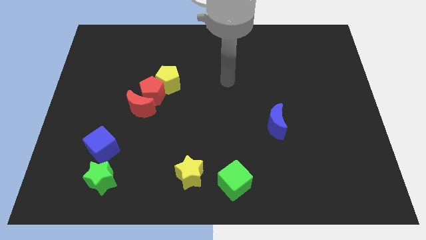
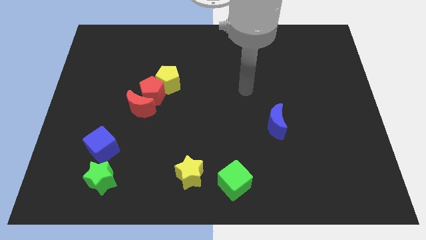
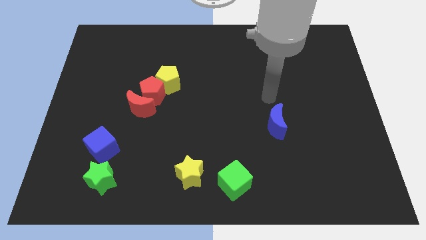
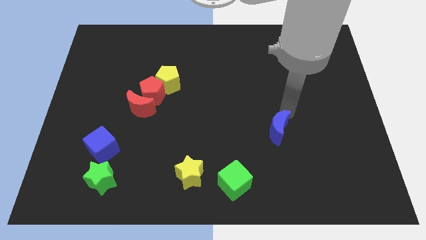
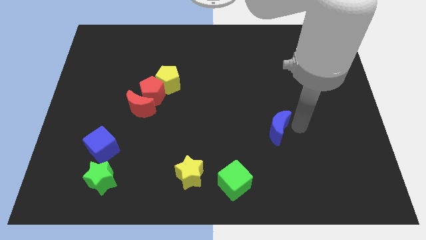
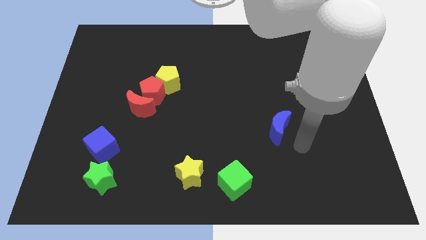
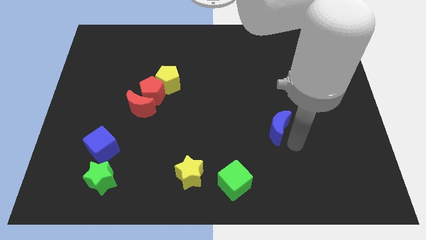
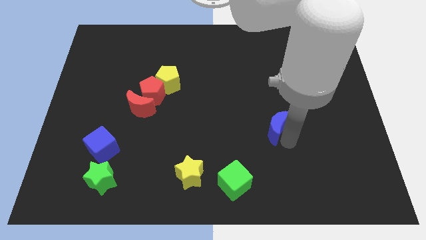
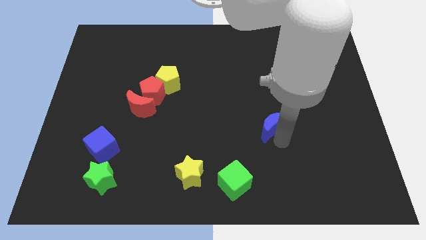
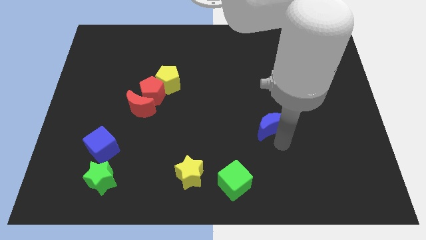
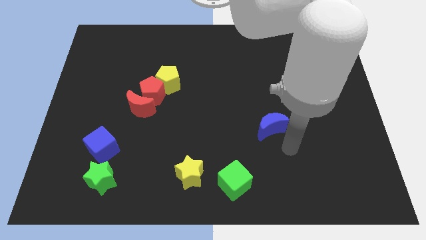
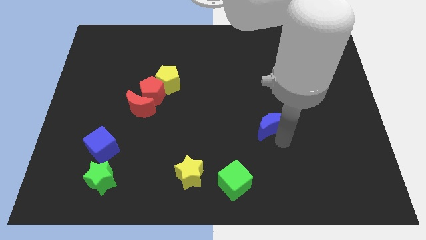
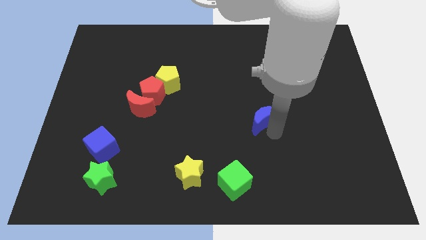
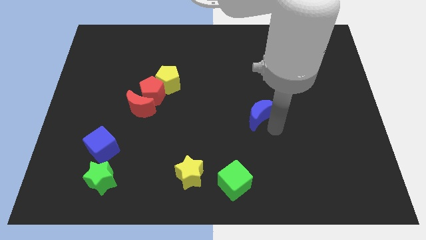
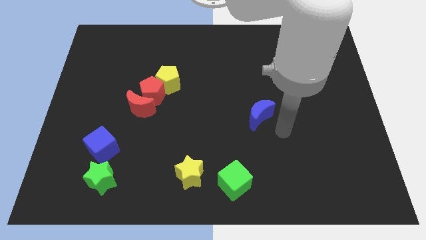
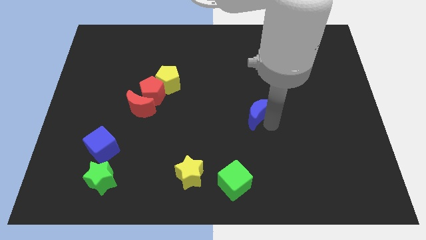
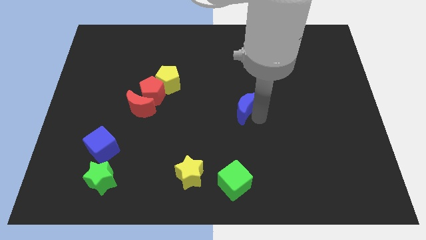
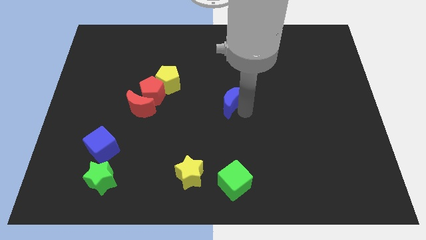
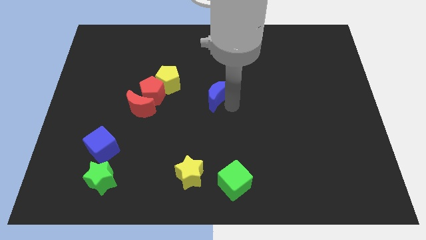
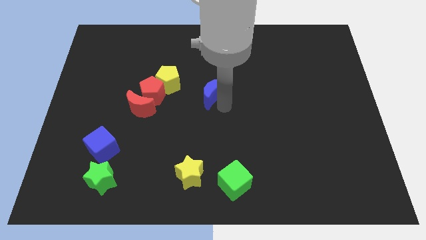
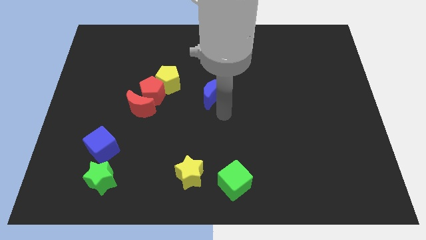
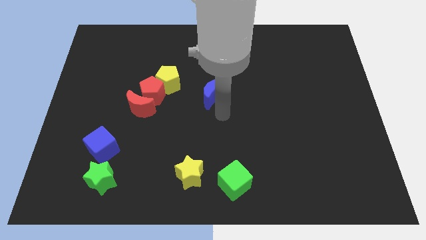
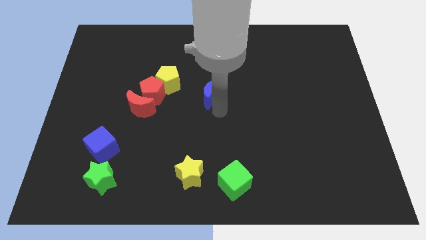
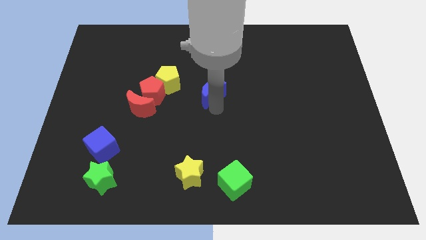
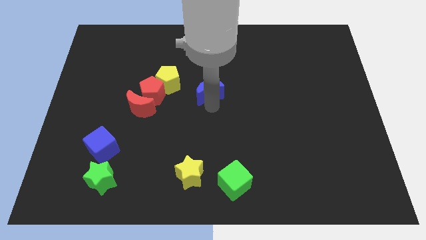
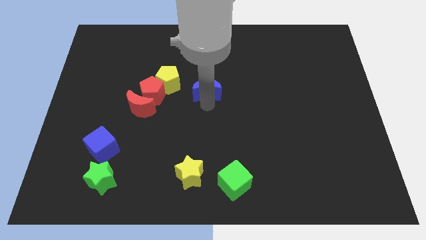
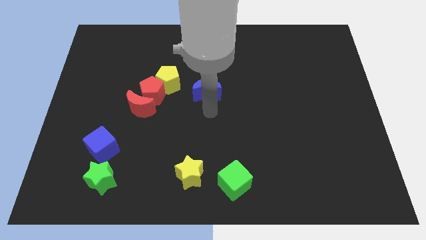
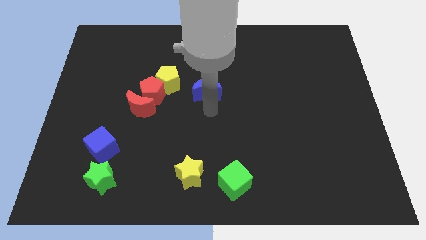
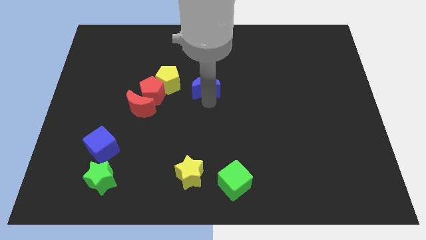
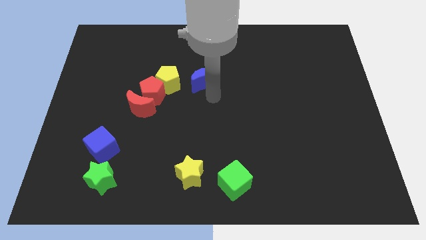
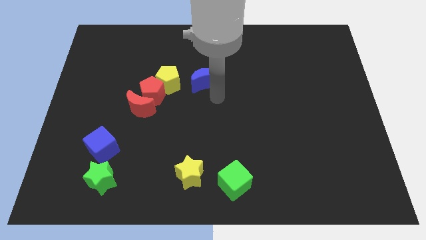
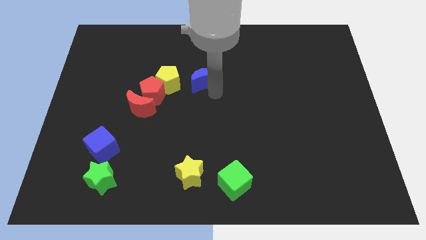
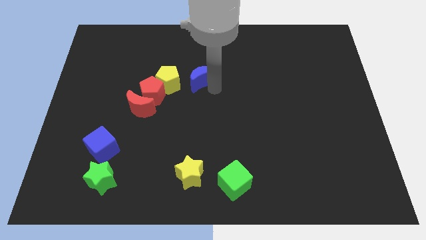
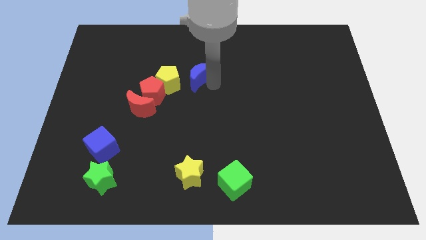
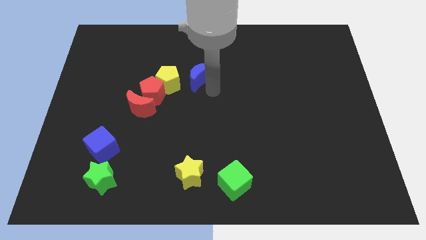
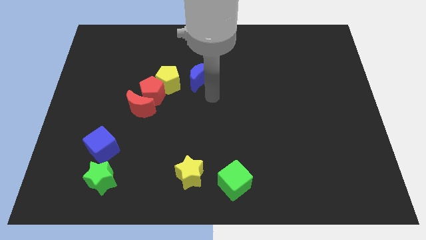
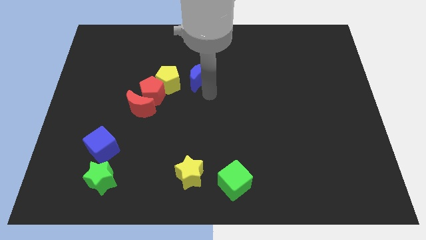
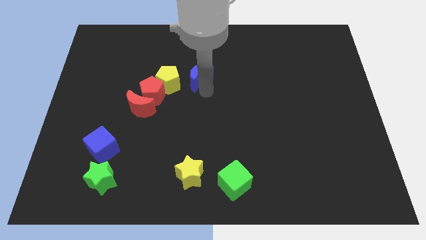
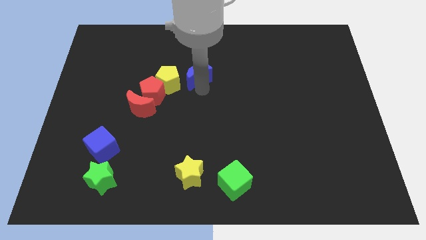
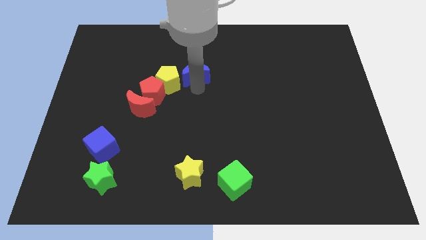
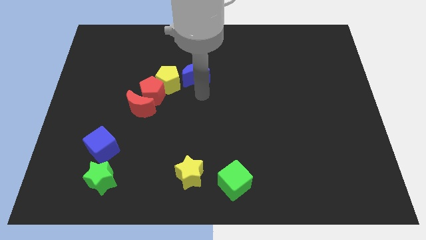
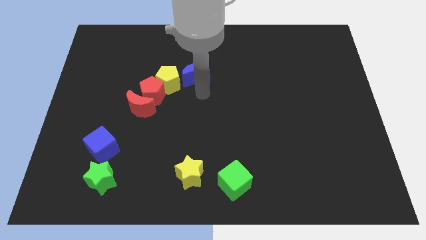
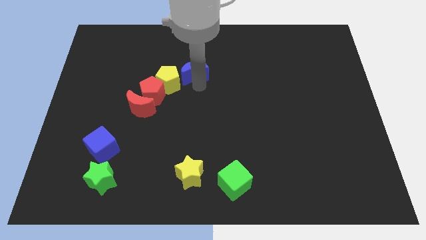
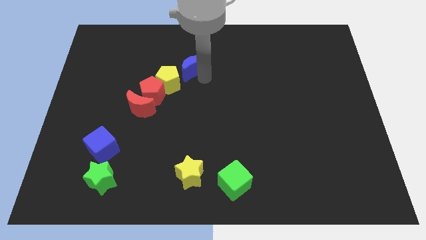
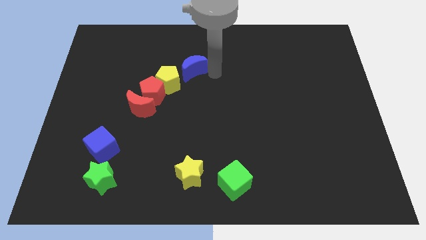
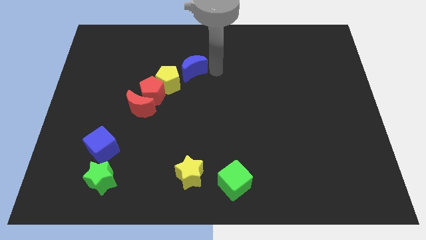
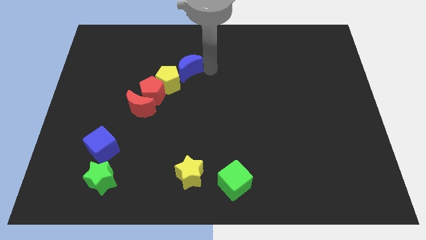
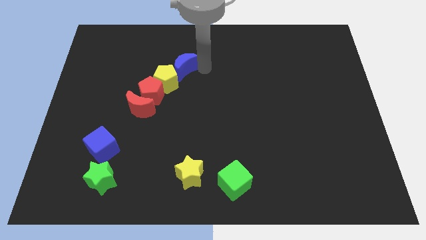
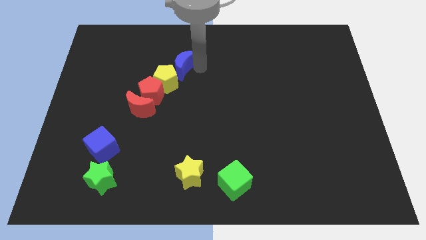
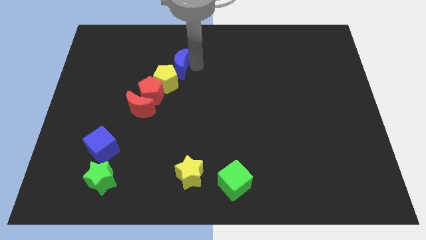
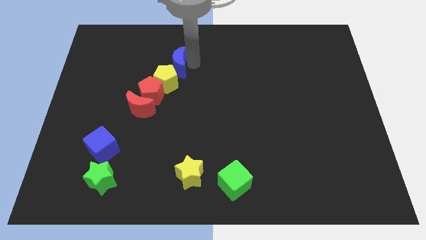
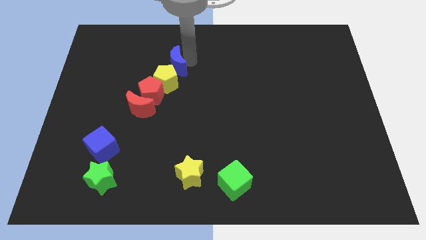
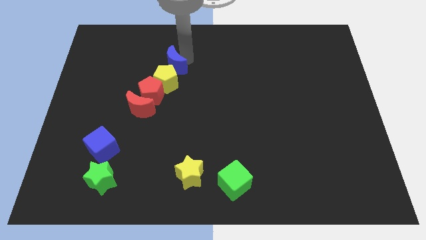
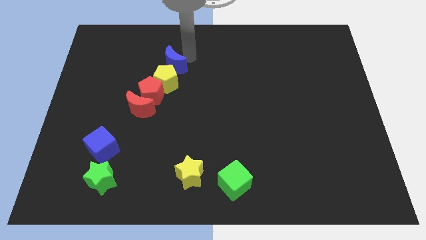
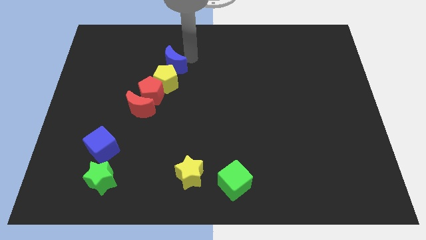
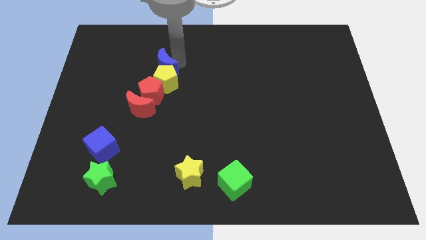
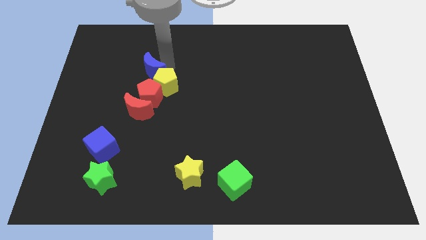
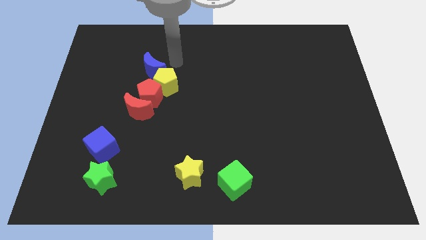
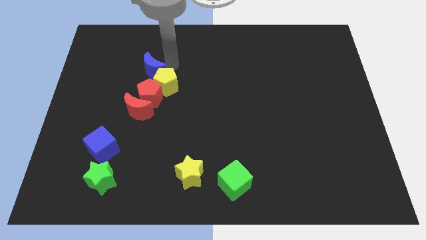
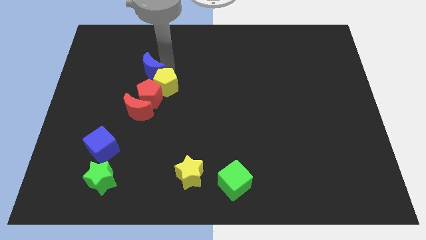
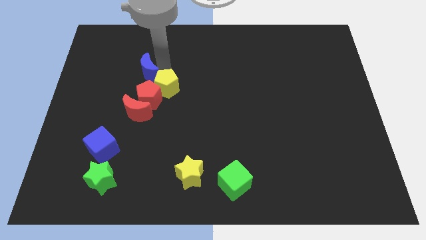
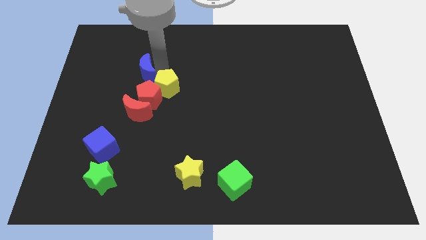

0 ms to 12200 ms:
slide the blue moon to the top left of the red pentagon

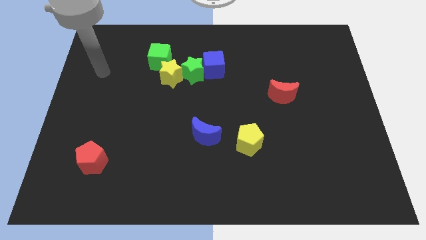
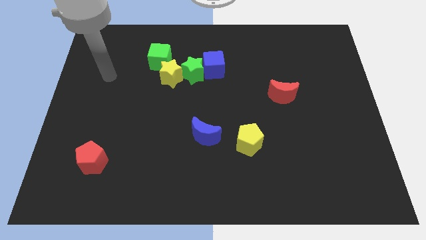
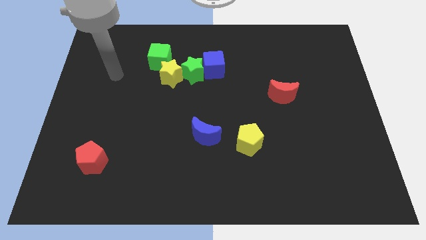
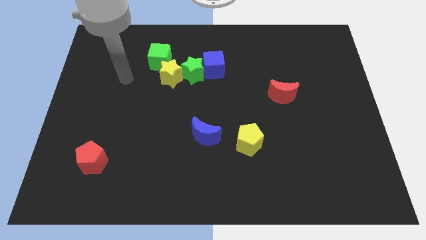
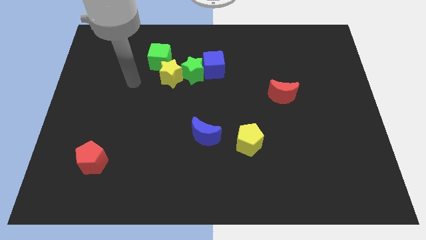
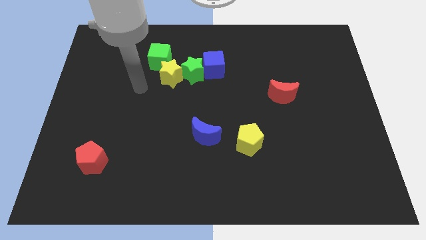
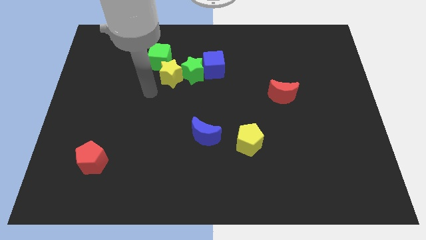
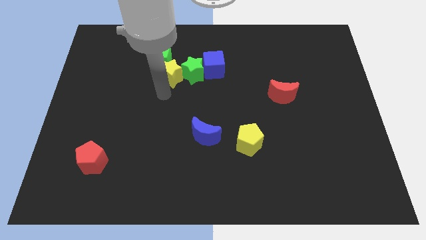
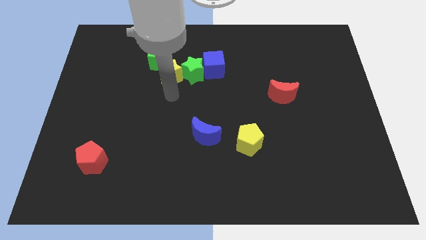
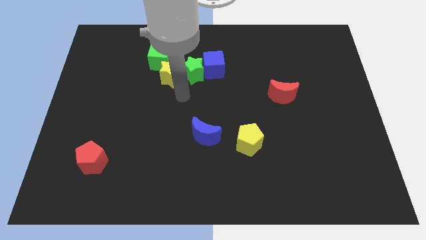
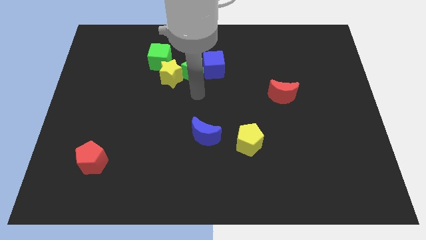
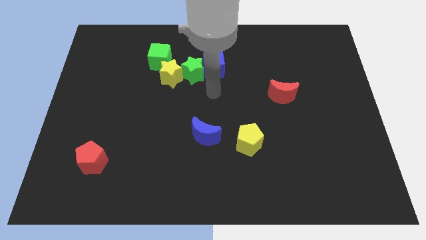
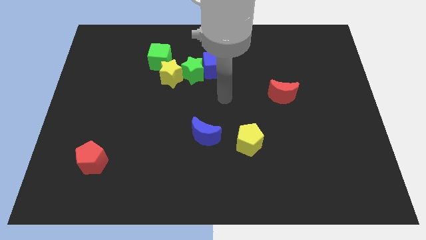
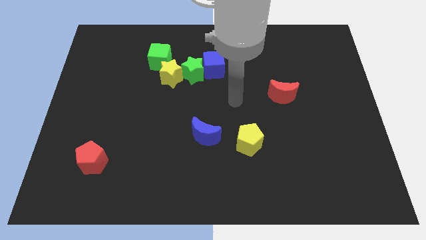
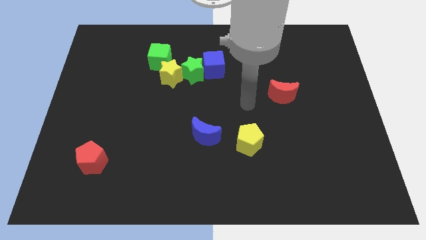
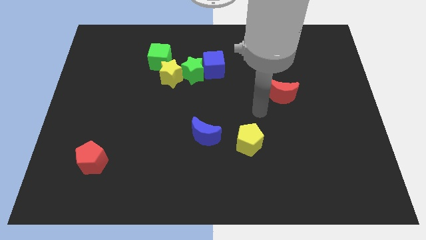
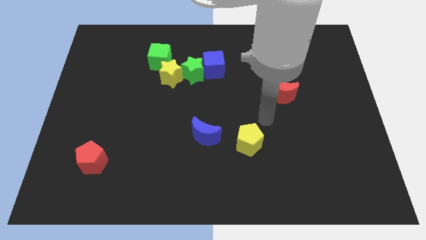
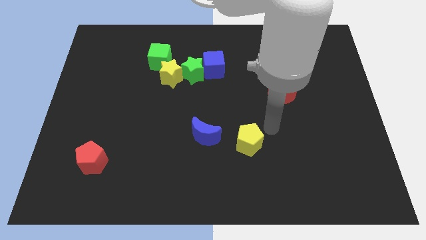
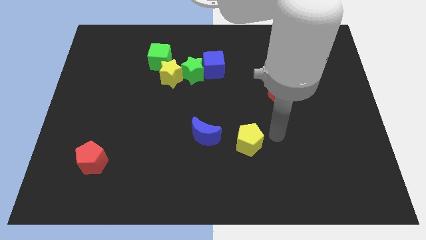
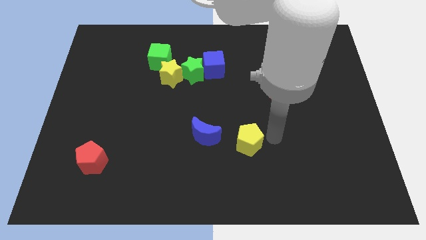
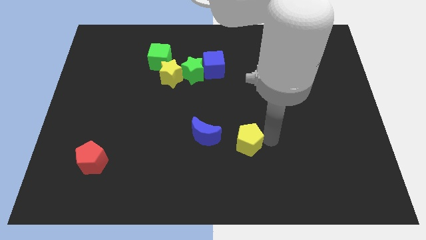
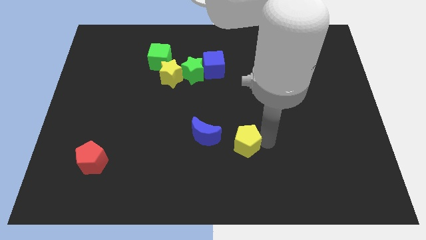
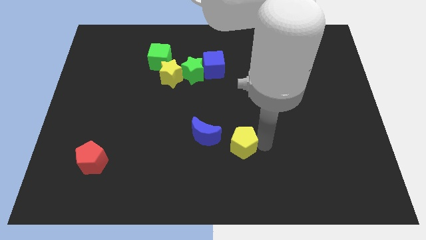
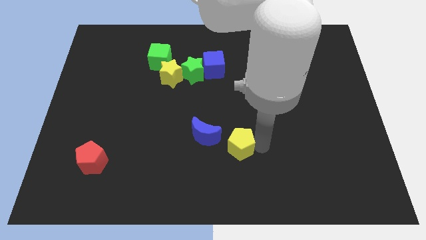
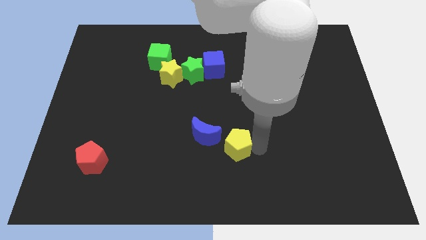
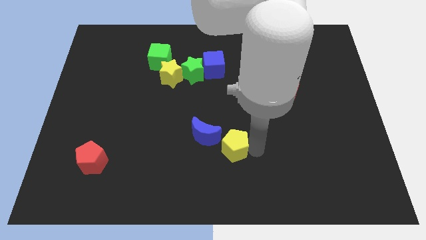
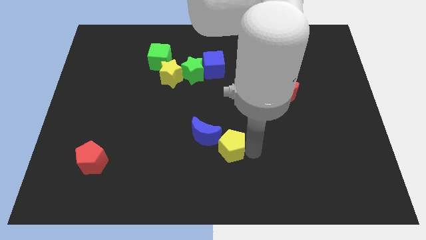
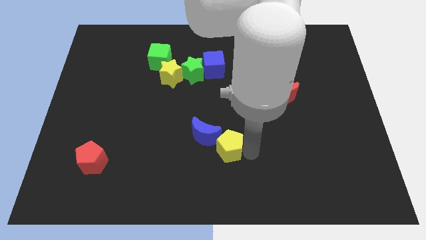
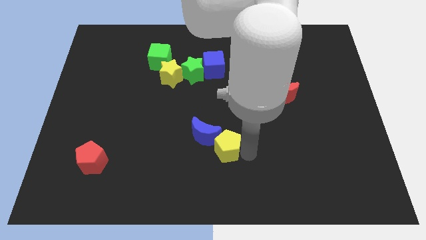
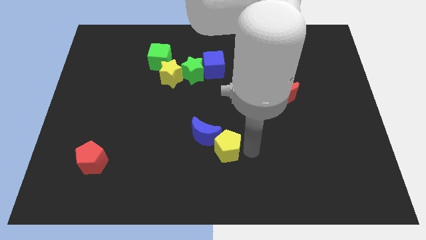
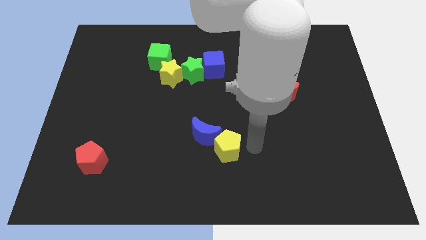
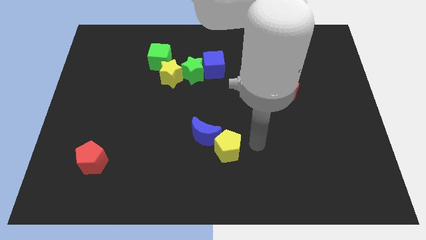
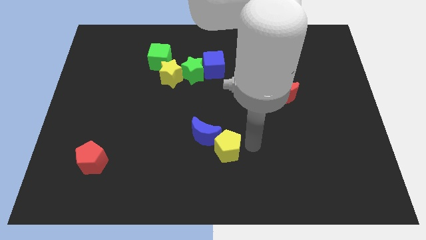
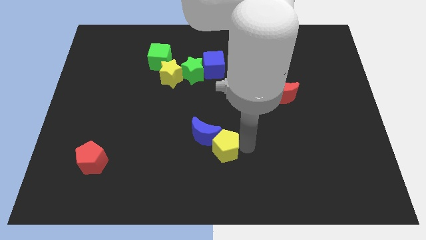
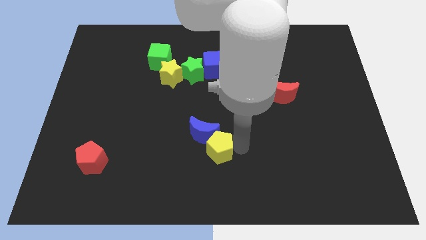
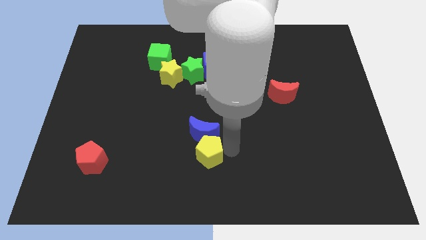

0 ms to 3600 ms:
slide the yellow pentagon diagonally down and to the left of the blue moon
